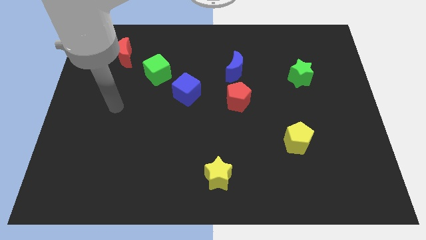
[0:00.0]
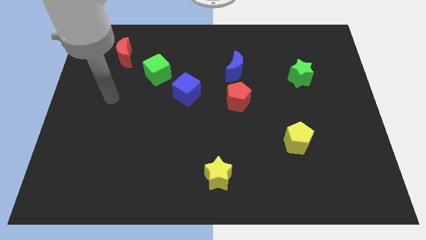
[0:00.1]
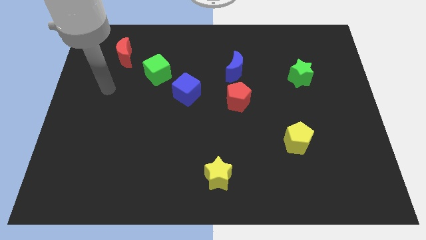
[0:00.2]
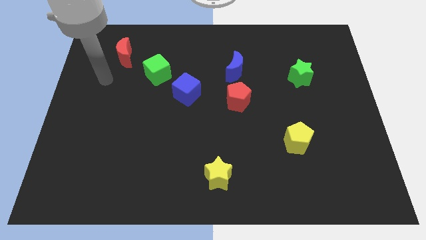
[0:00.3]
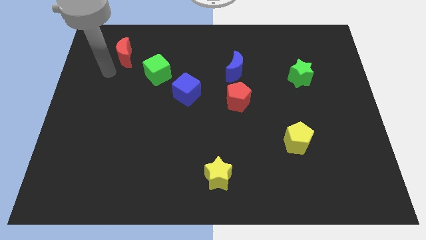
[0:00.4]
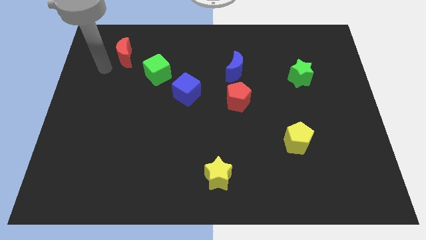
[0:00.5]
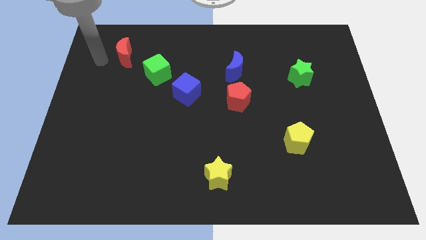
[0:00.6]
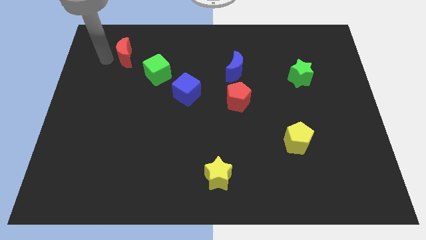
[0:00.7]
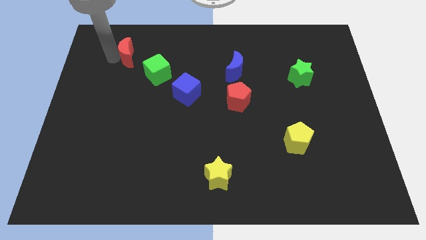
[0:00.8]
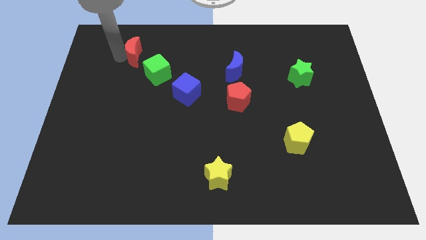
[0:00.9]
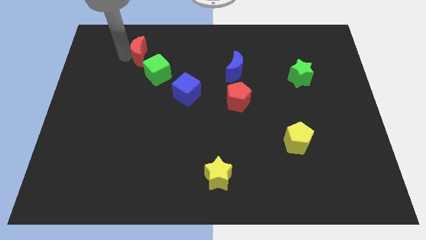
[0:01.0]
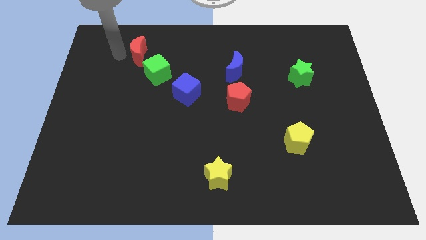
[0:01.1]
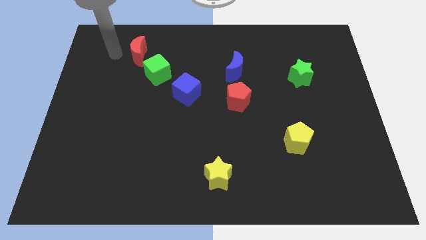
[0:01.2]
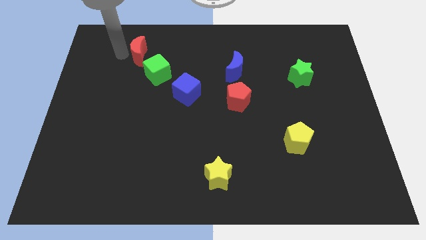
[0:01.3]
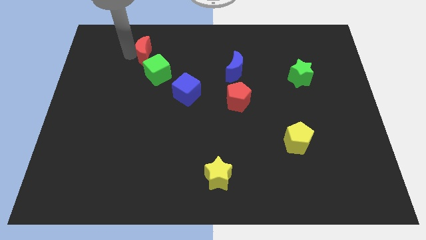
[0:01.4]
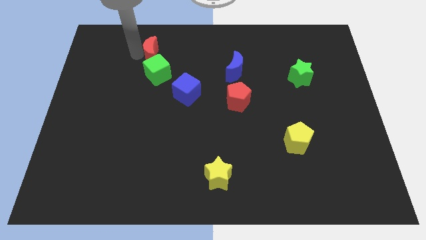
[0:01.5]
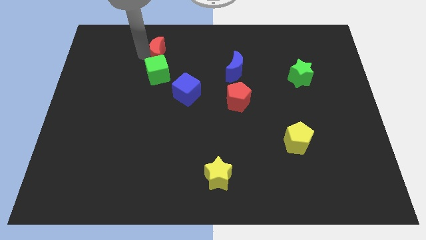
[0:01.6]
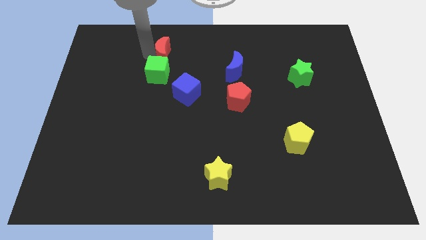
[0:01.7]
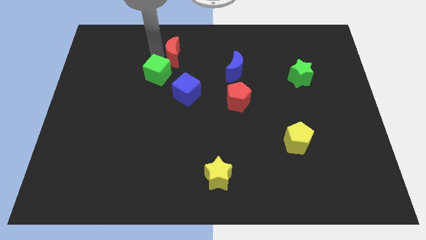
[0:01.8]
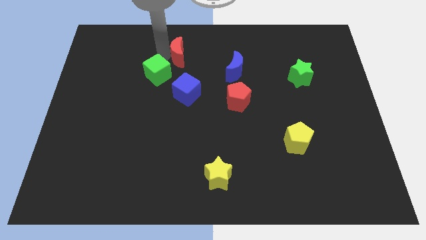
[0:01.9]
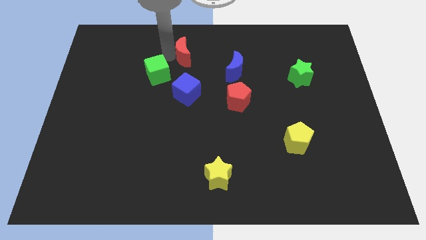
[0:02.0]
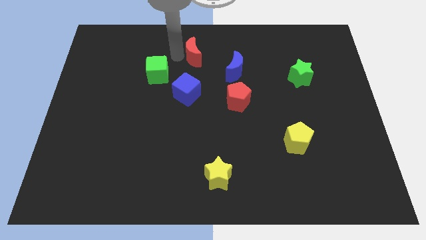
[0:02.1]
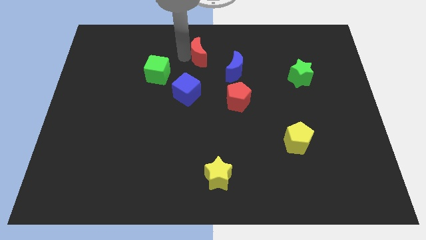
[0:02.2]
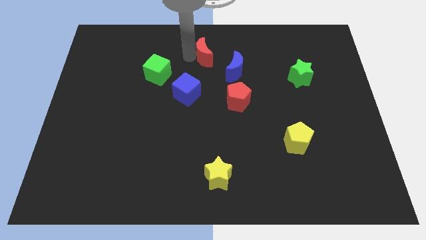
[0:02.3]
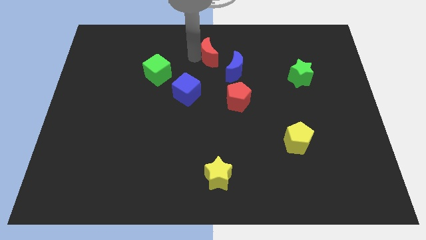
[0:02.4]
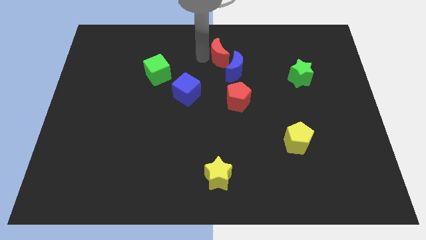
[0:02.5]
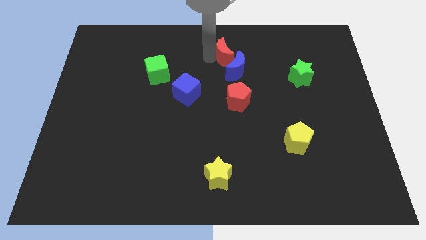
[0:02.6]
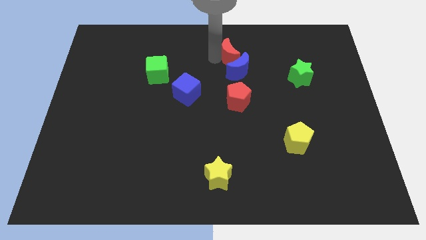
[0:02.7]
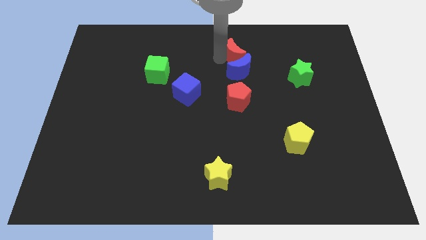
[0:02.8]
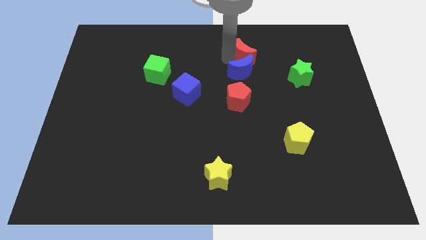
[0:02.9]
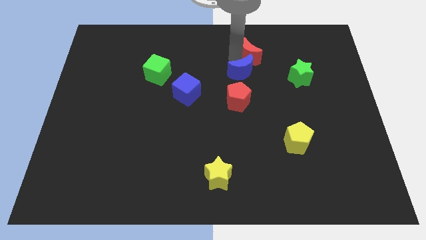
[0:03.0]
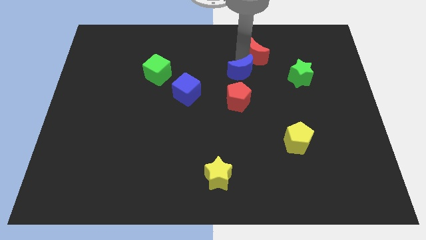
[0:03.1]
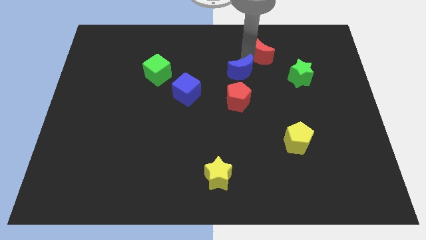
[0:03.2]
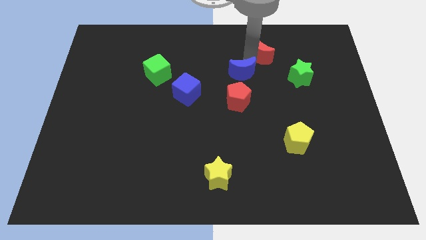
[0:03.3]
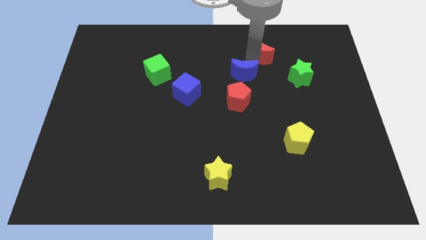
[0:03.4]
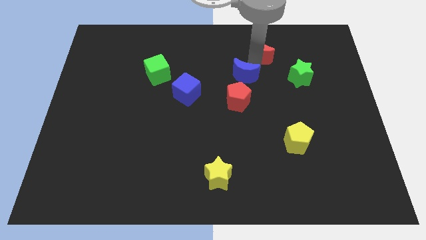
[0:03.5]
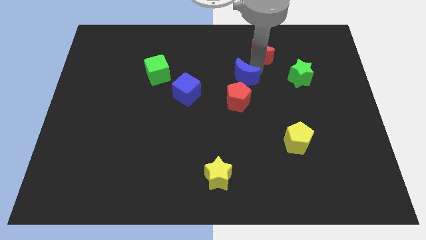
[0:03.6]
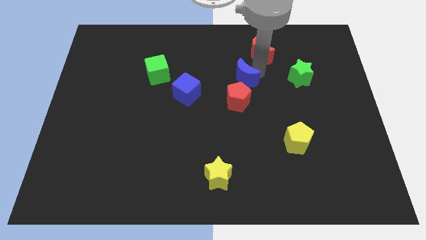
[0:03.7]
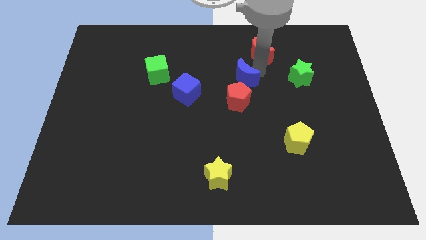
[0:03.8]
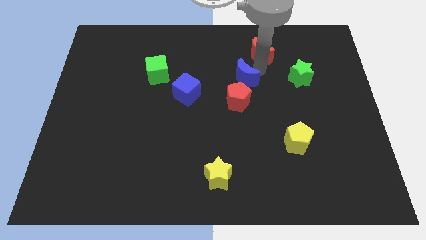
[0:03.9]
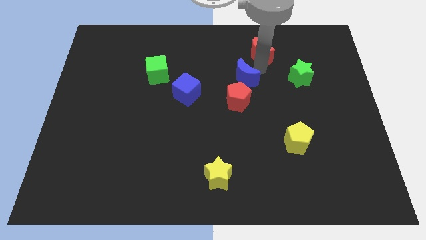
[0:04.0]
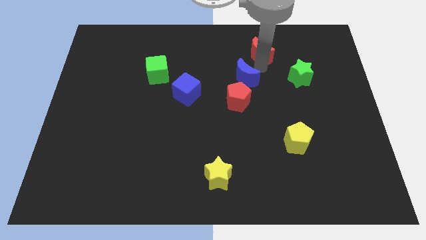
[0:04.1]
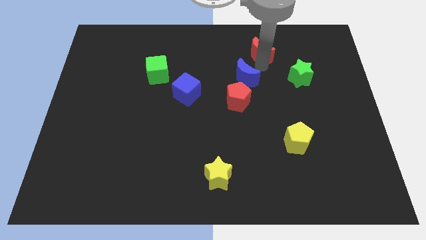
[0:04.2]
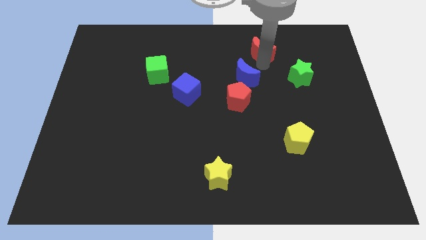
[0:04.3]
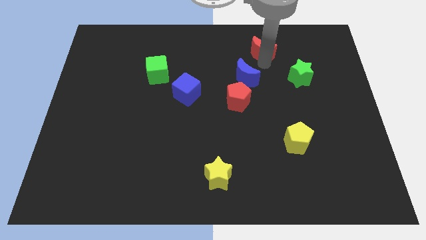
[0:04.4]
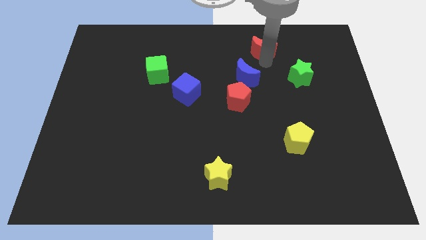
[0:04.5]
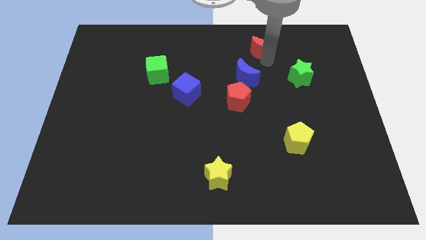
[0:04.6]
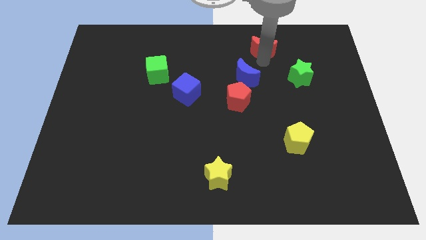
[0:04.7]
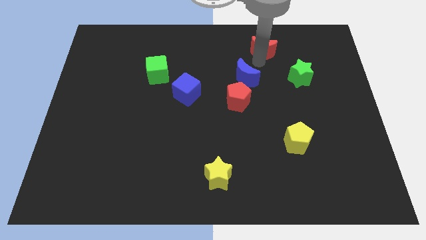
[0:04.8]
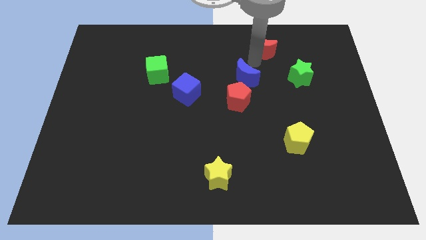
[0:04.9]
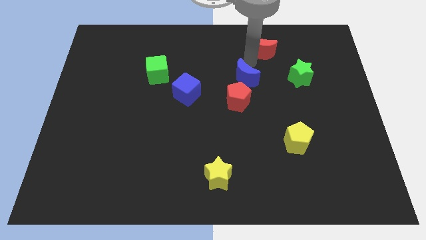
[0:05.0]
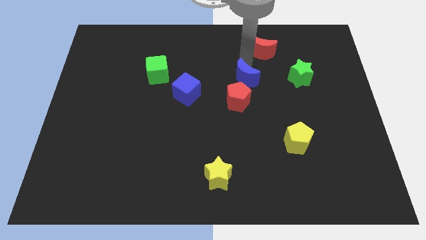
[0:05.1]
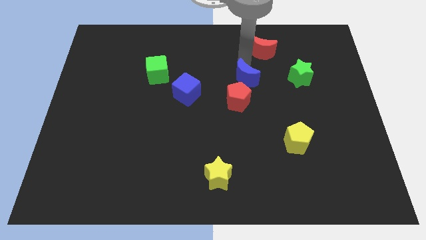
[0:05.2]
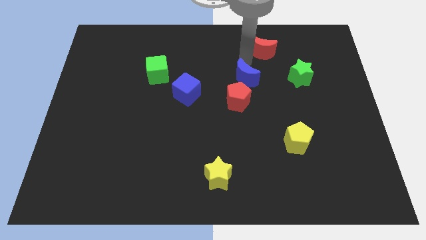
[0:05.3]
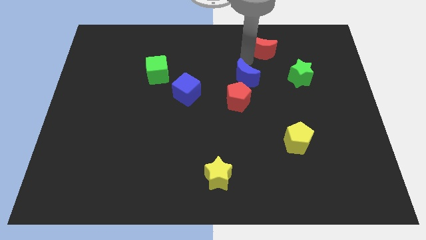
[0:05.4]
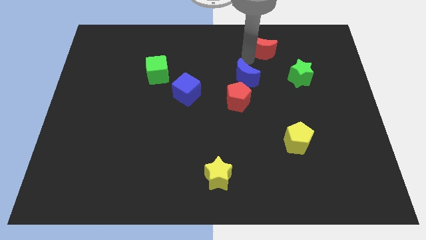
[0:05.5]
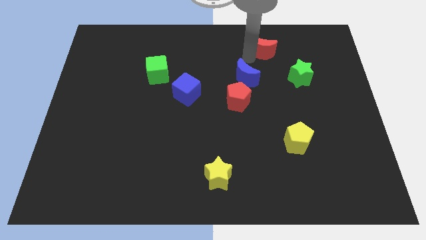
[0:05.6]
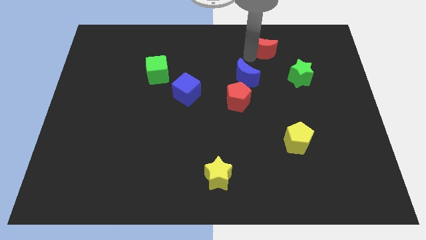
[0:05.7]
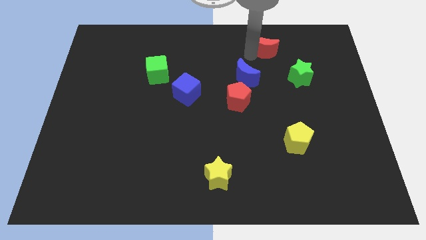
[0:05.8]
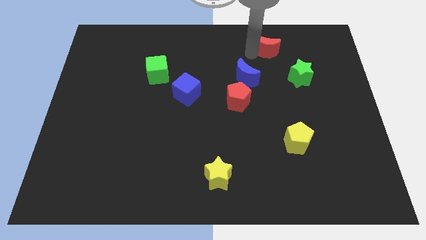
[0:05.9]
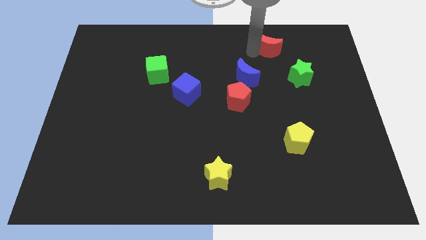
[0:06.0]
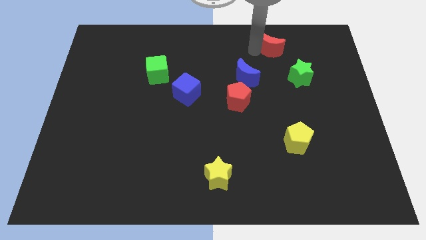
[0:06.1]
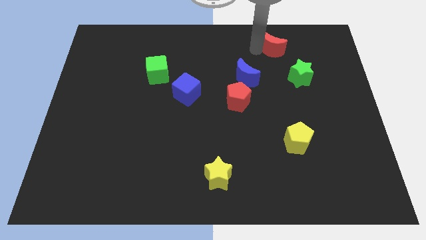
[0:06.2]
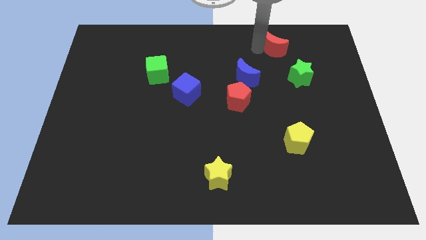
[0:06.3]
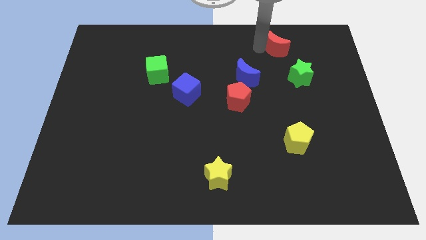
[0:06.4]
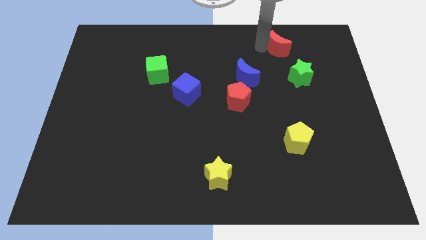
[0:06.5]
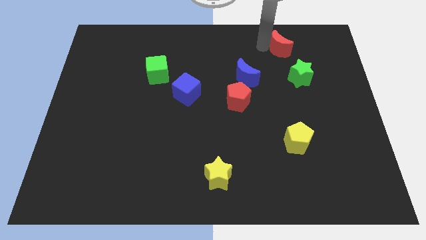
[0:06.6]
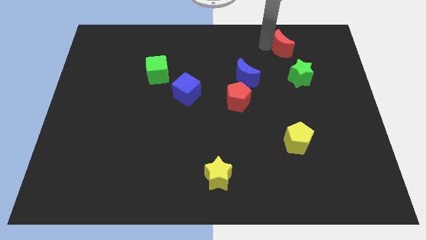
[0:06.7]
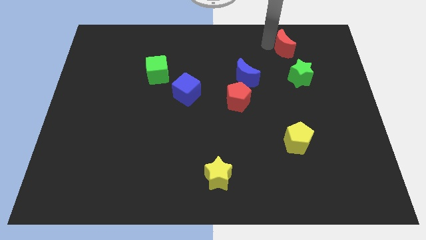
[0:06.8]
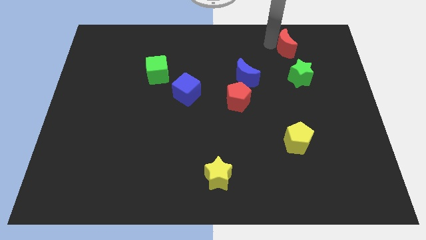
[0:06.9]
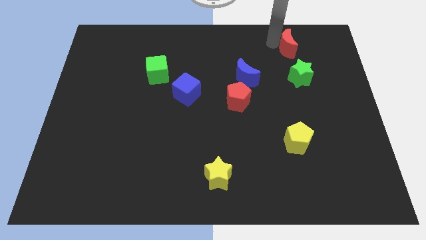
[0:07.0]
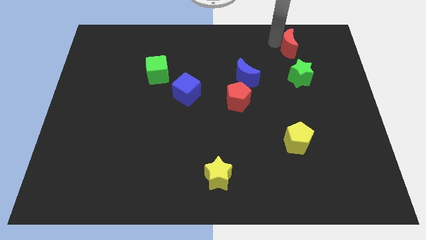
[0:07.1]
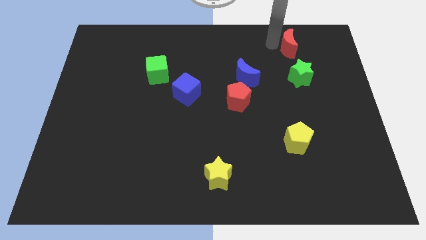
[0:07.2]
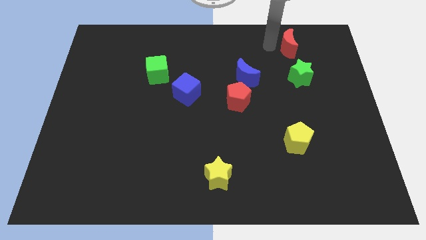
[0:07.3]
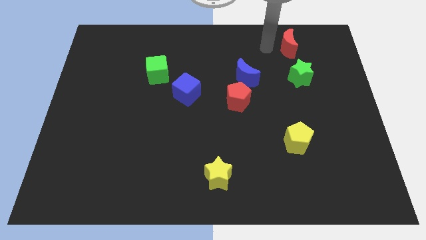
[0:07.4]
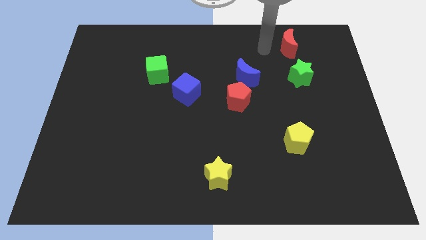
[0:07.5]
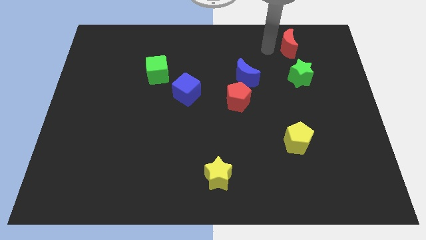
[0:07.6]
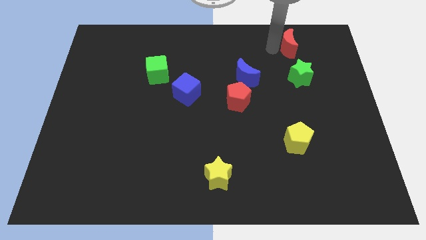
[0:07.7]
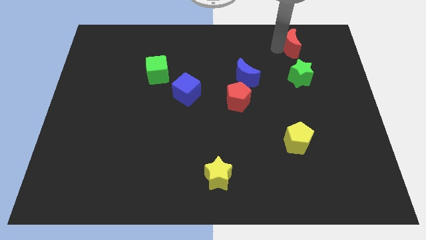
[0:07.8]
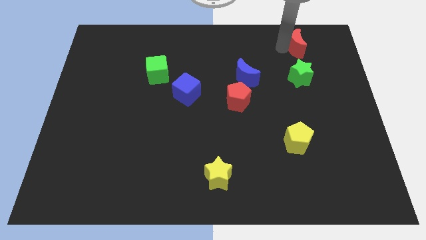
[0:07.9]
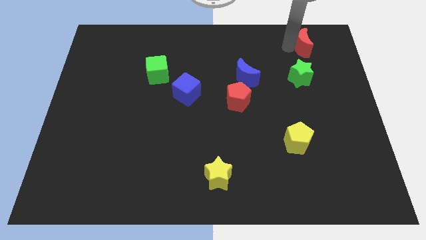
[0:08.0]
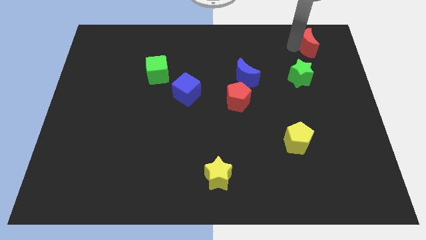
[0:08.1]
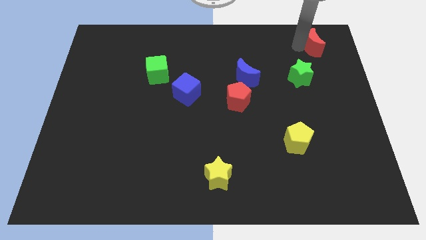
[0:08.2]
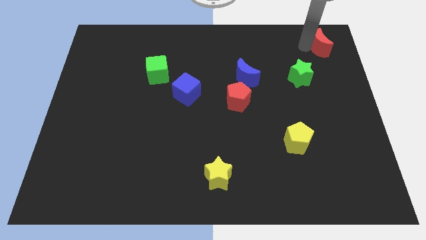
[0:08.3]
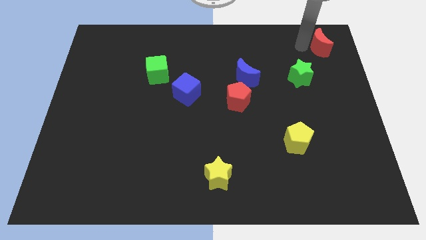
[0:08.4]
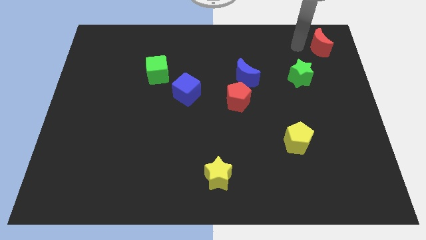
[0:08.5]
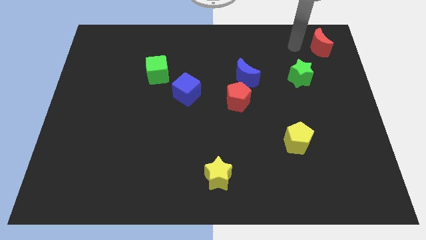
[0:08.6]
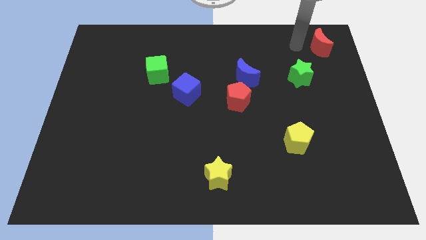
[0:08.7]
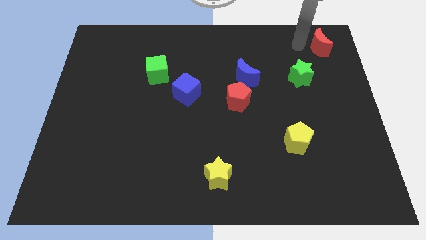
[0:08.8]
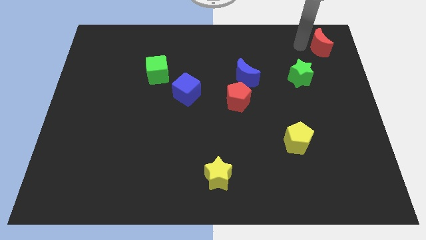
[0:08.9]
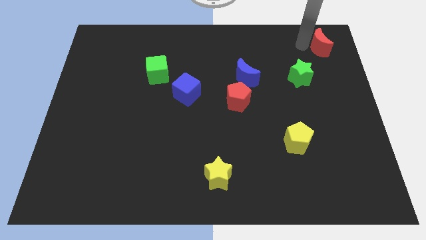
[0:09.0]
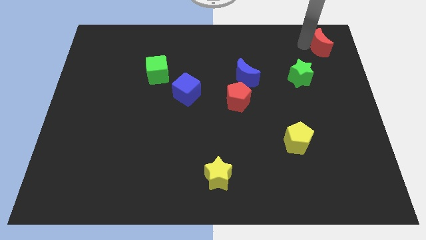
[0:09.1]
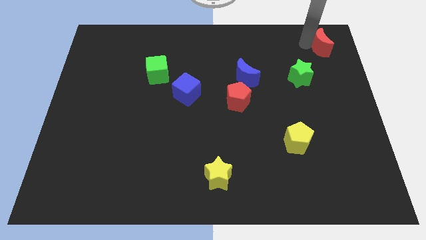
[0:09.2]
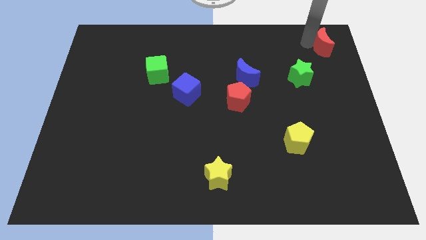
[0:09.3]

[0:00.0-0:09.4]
put the red moon to the top right corner
